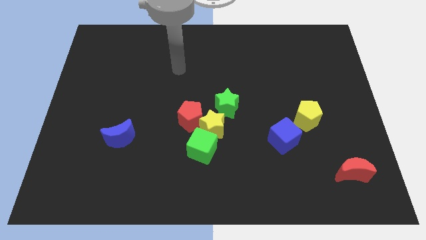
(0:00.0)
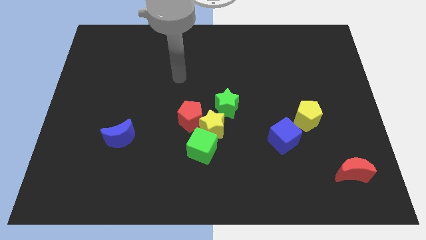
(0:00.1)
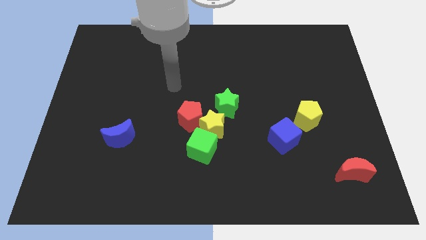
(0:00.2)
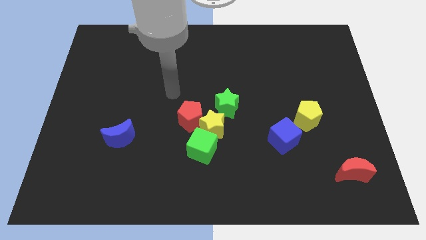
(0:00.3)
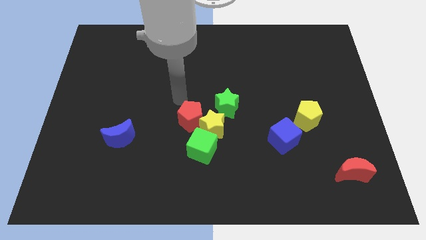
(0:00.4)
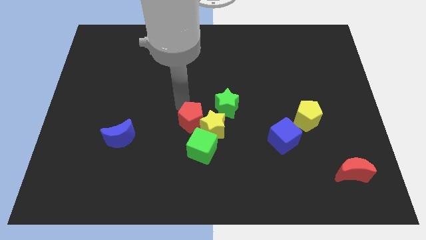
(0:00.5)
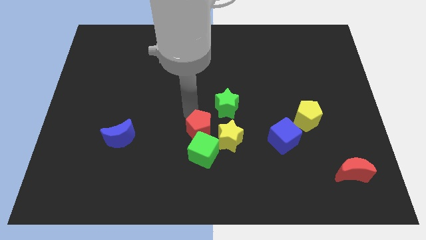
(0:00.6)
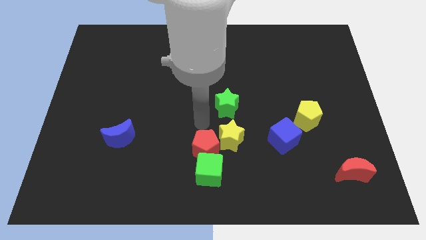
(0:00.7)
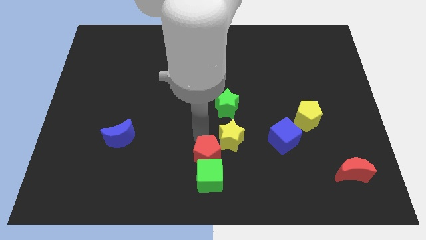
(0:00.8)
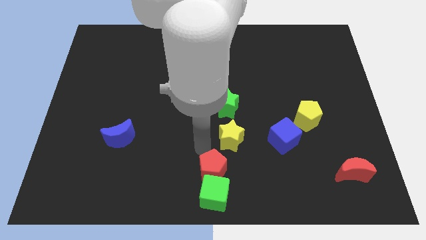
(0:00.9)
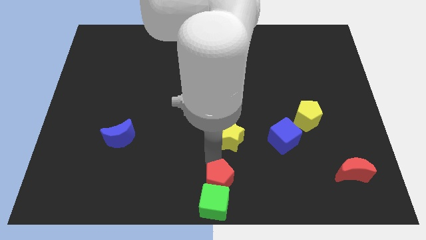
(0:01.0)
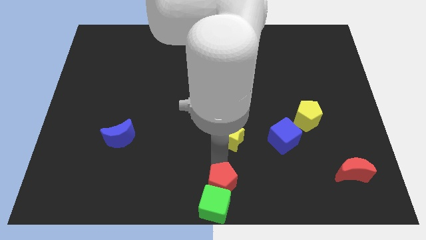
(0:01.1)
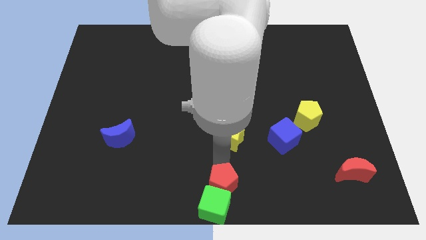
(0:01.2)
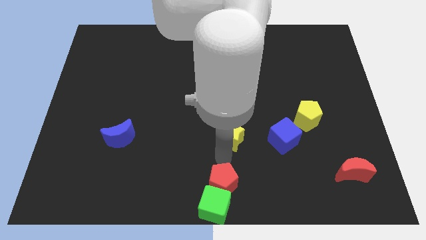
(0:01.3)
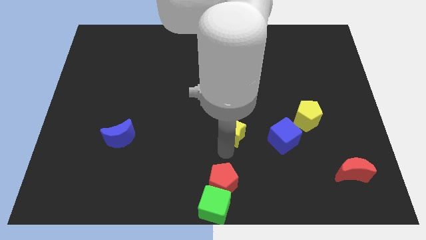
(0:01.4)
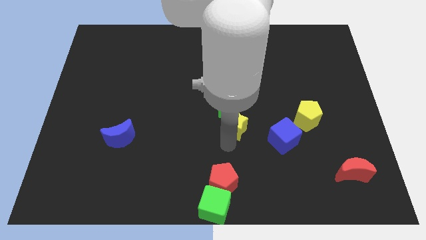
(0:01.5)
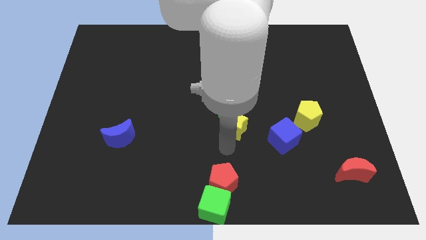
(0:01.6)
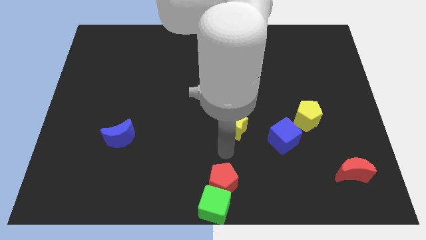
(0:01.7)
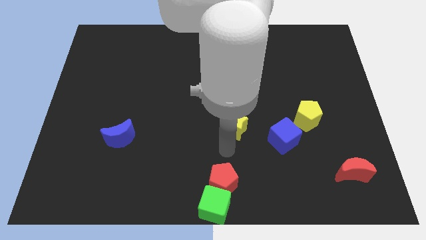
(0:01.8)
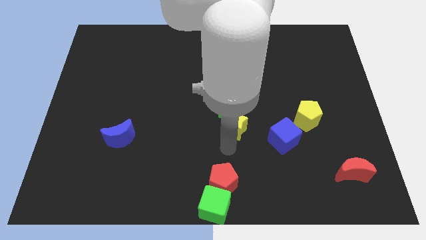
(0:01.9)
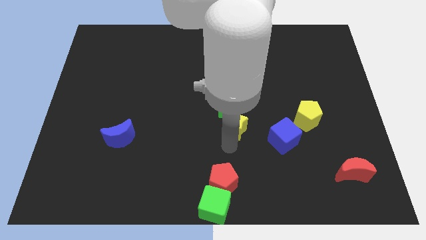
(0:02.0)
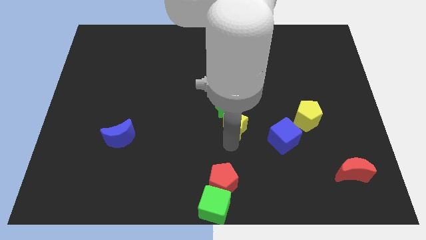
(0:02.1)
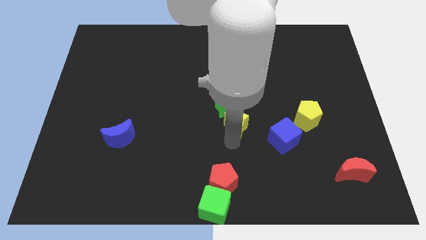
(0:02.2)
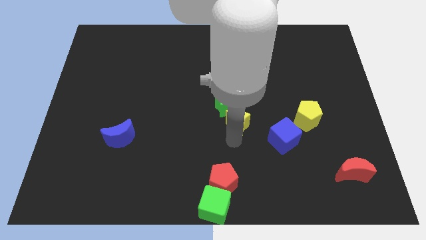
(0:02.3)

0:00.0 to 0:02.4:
move the yellow star away from the red pentagon, green cube, and green star

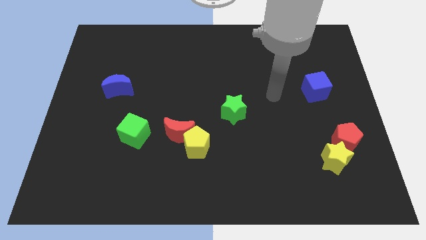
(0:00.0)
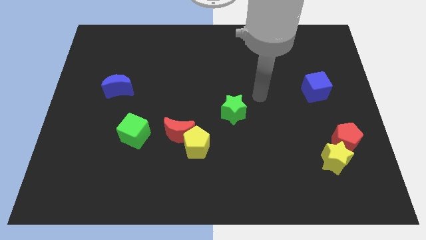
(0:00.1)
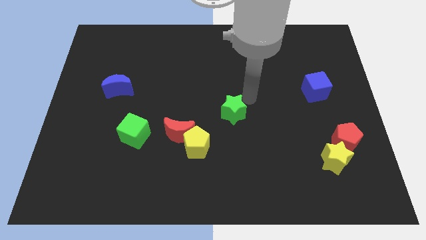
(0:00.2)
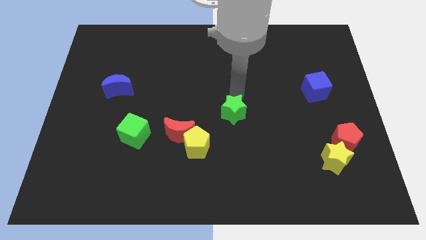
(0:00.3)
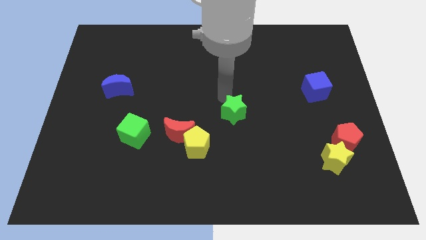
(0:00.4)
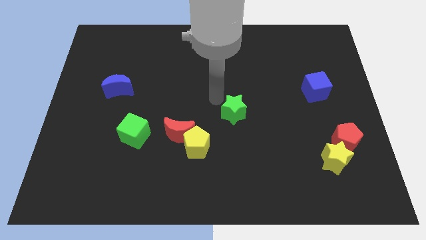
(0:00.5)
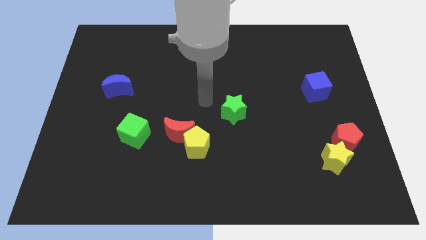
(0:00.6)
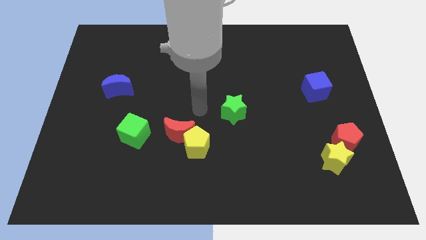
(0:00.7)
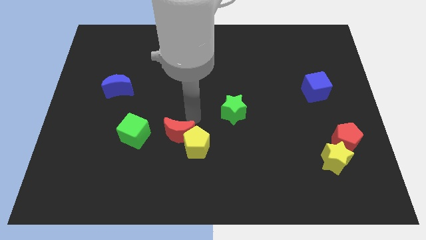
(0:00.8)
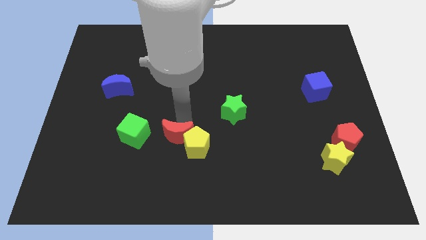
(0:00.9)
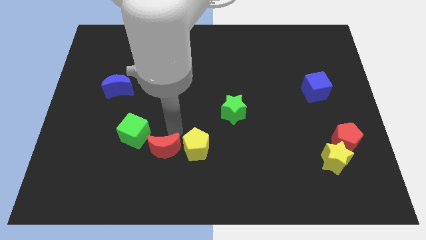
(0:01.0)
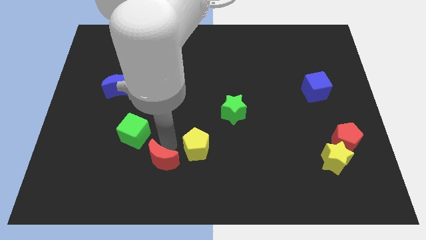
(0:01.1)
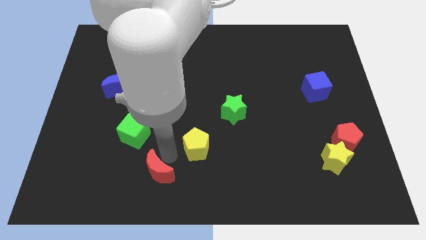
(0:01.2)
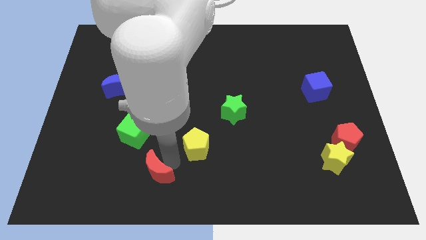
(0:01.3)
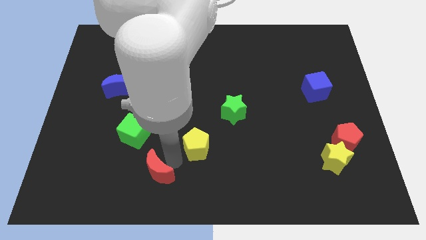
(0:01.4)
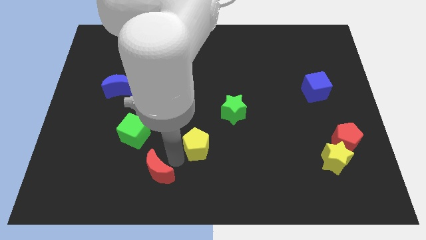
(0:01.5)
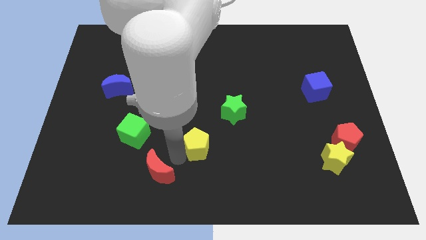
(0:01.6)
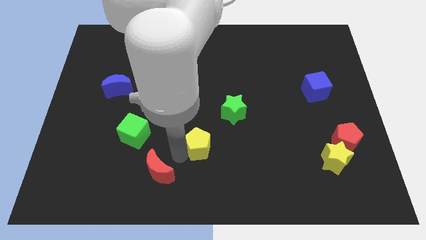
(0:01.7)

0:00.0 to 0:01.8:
separate the yellow pentagon from the red moon

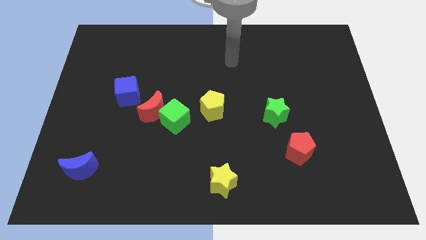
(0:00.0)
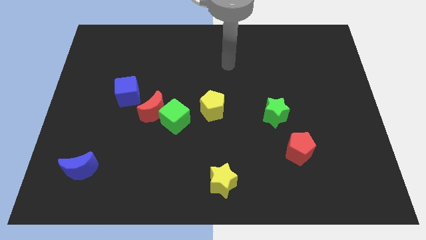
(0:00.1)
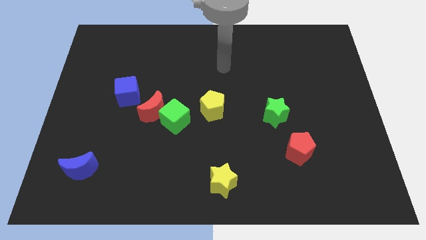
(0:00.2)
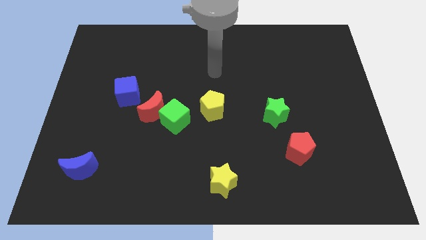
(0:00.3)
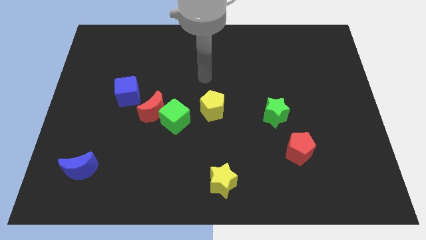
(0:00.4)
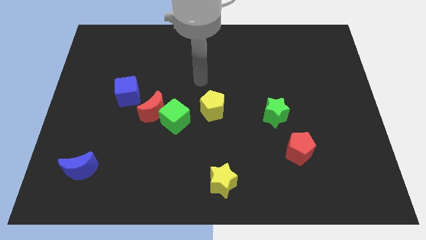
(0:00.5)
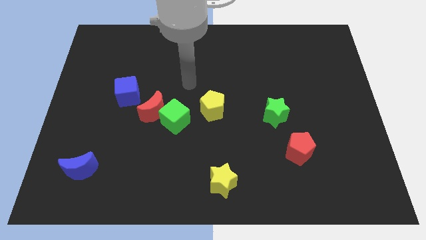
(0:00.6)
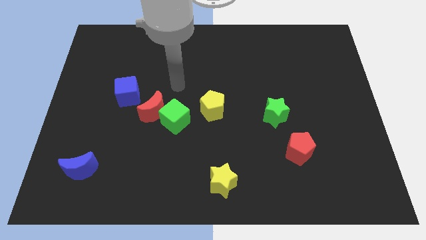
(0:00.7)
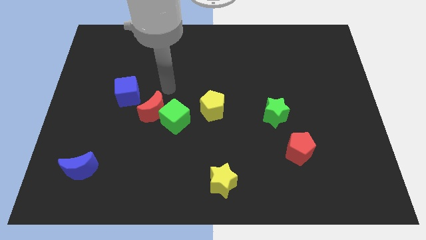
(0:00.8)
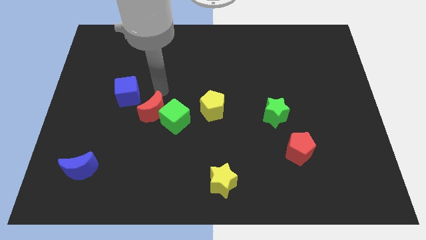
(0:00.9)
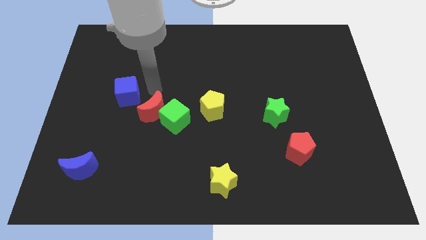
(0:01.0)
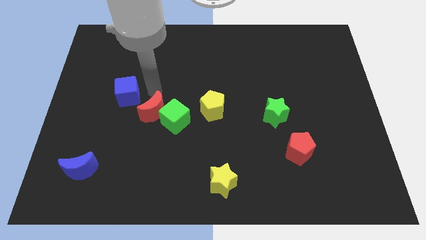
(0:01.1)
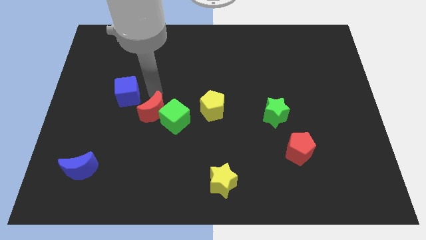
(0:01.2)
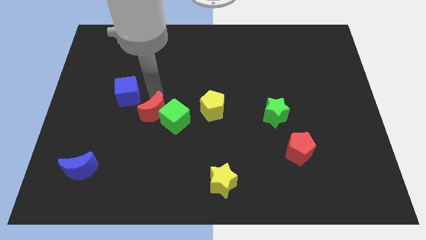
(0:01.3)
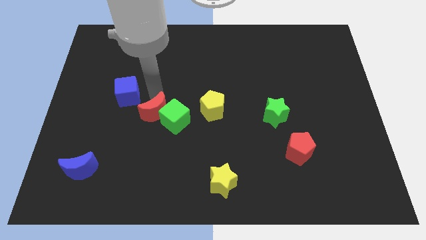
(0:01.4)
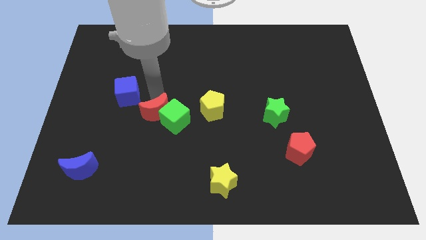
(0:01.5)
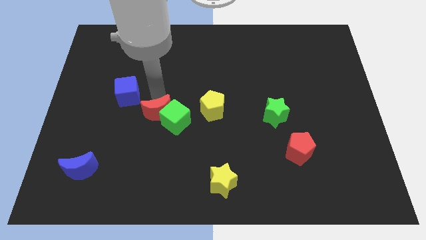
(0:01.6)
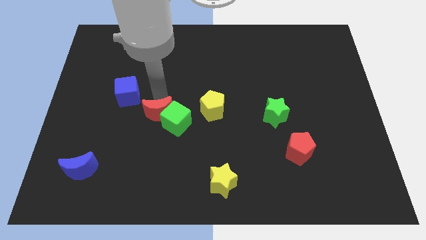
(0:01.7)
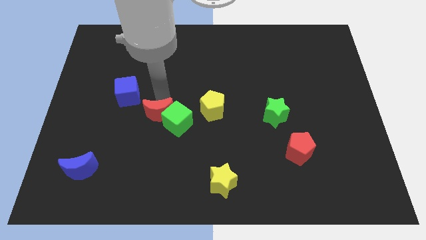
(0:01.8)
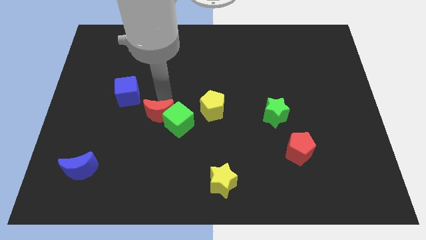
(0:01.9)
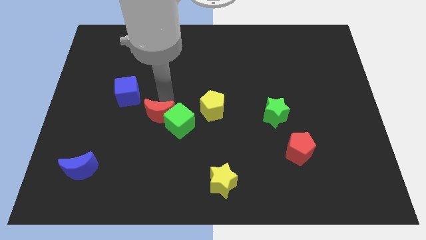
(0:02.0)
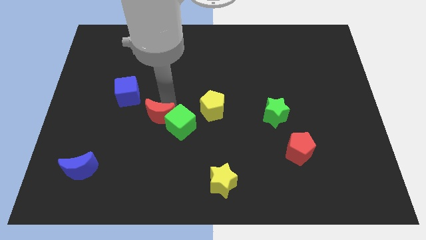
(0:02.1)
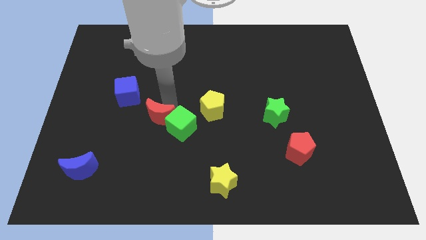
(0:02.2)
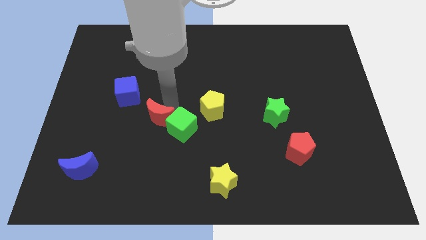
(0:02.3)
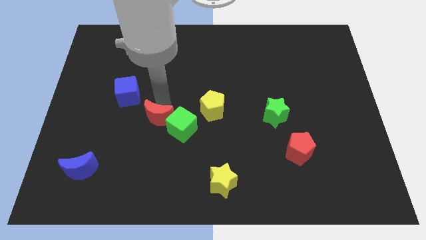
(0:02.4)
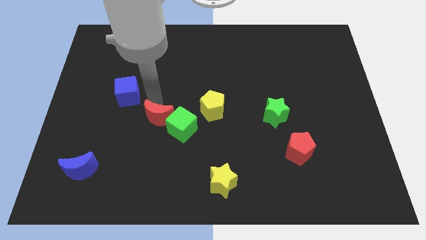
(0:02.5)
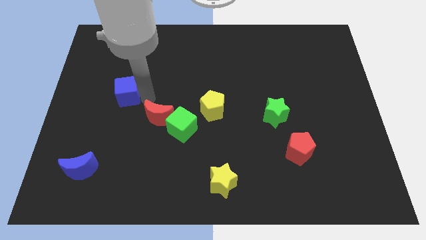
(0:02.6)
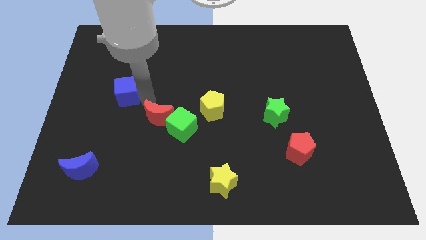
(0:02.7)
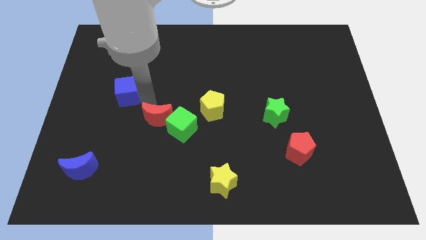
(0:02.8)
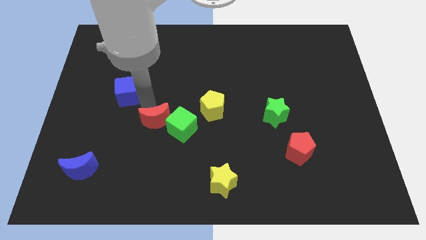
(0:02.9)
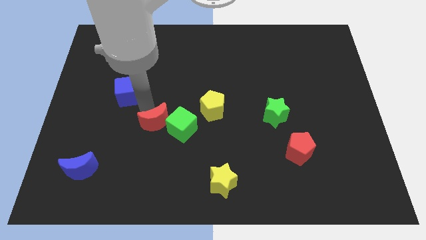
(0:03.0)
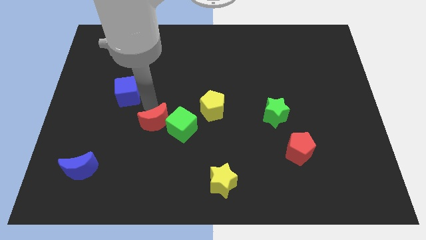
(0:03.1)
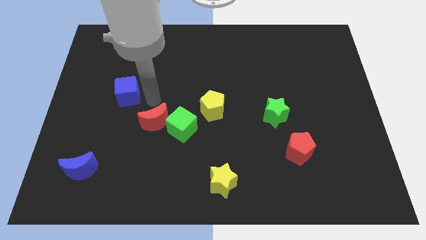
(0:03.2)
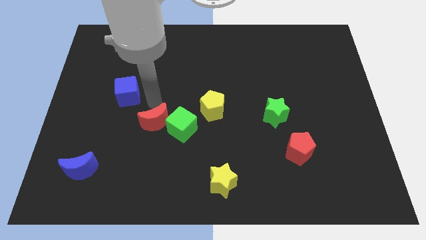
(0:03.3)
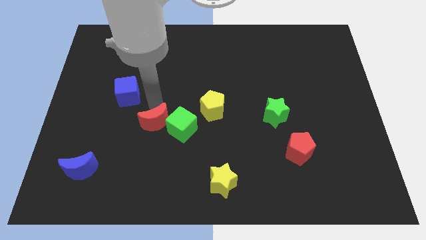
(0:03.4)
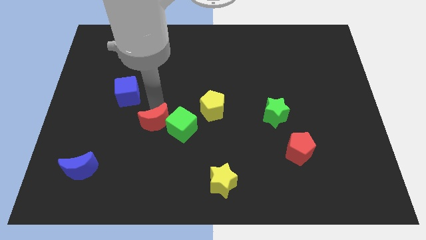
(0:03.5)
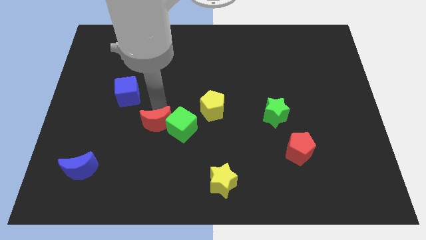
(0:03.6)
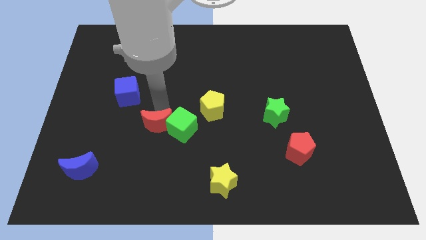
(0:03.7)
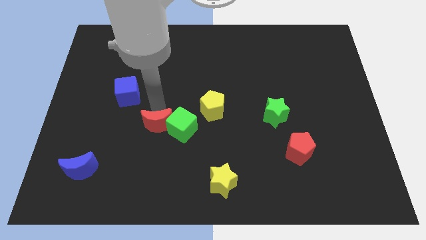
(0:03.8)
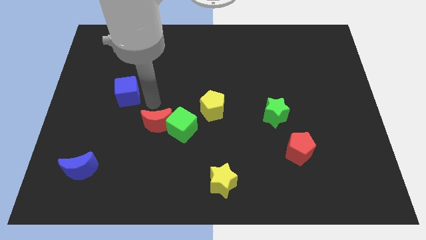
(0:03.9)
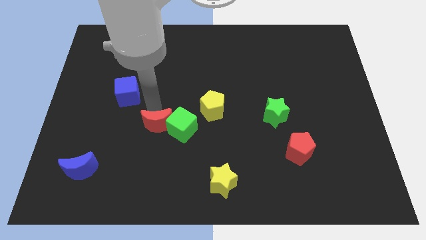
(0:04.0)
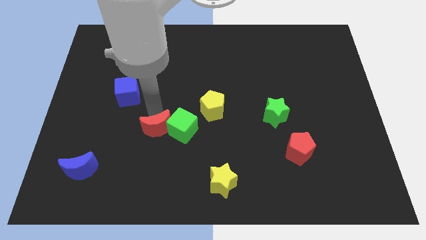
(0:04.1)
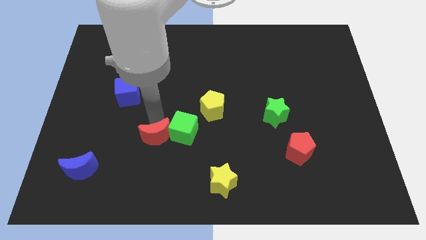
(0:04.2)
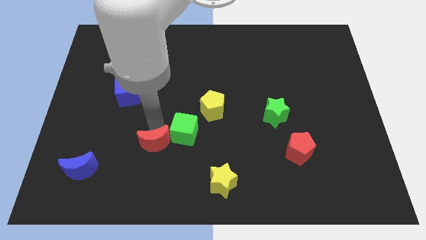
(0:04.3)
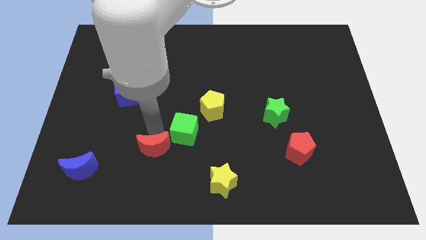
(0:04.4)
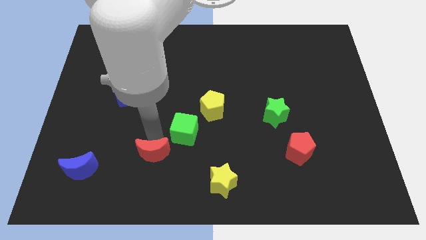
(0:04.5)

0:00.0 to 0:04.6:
move the red moon away from the green cube and blue cube

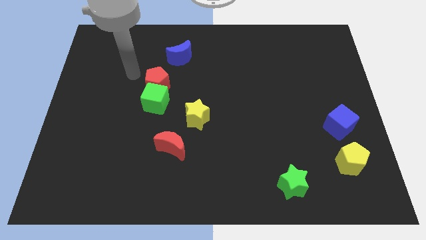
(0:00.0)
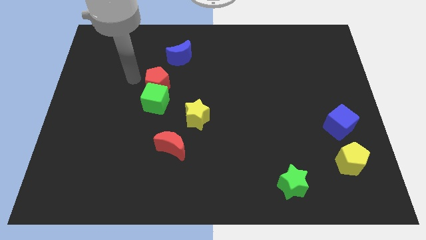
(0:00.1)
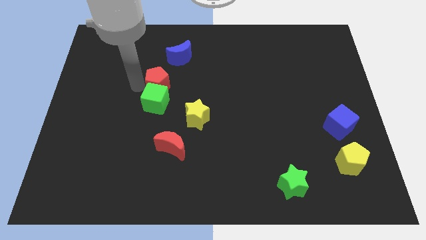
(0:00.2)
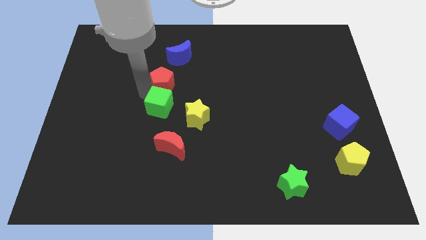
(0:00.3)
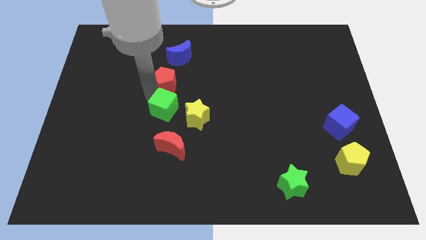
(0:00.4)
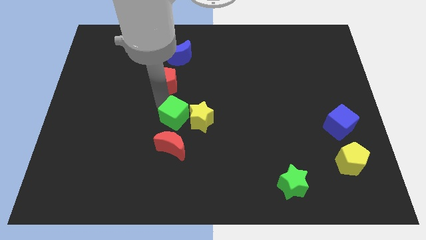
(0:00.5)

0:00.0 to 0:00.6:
pull the red pentagon apart from the green cube

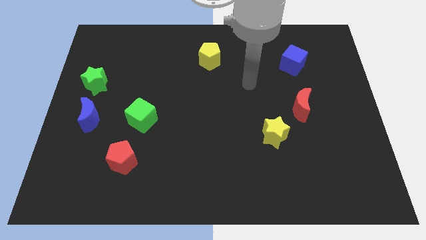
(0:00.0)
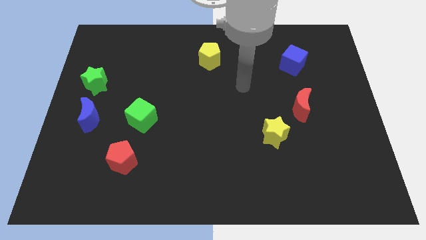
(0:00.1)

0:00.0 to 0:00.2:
pull the blue moon apart from the green star
